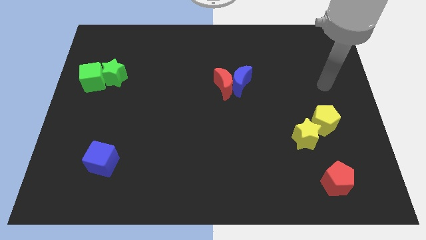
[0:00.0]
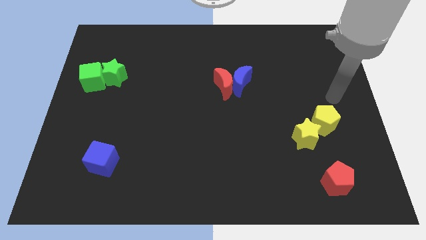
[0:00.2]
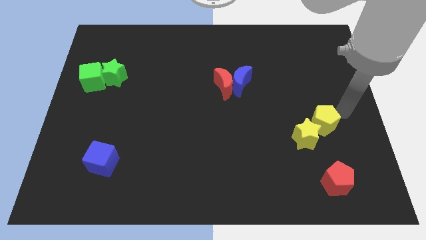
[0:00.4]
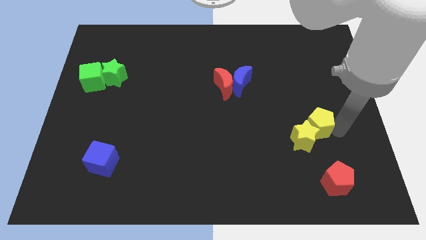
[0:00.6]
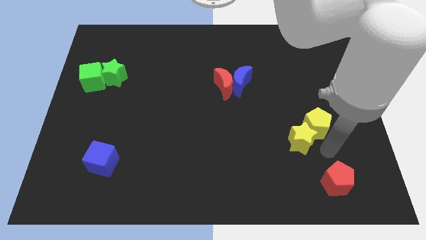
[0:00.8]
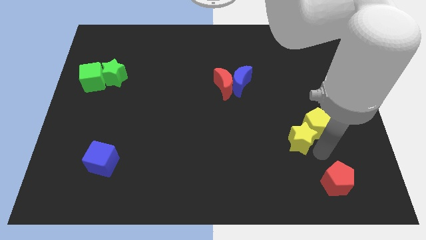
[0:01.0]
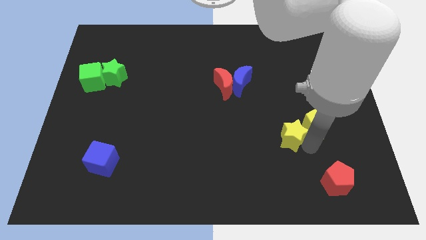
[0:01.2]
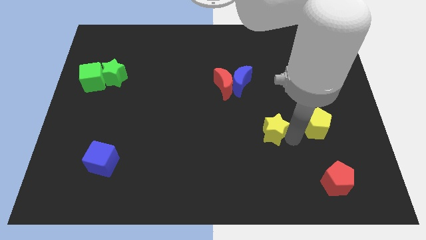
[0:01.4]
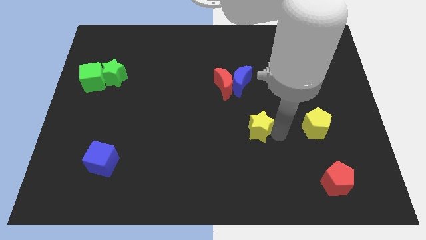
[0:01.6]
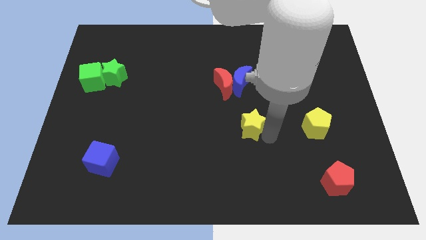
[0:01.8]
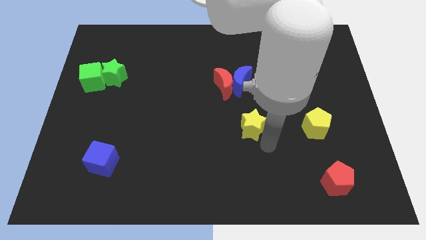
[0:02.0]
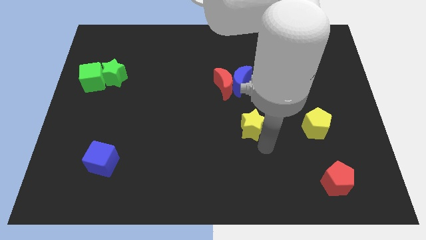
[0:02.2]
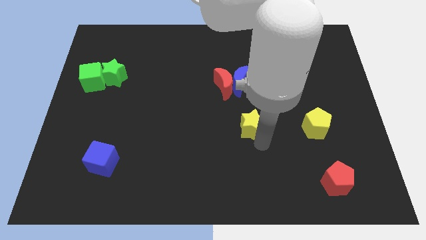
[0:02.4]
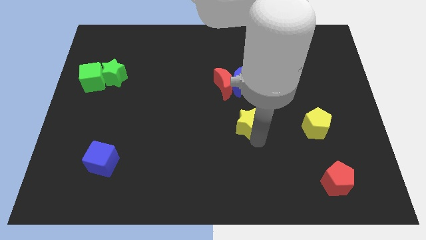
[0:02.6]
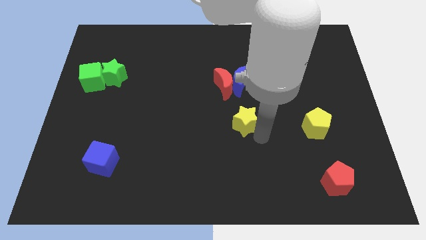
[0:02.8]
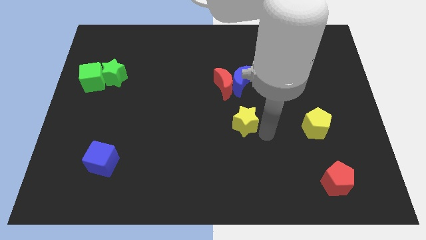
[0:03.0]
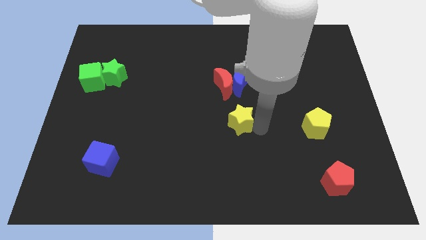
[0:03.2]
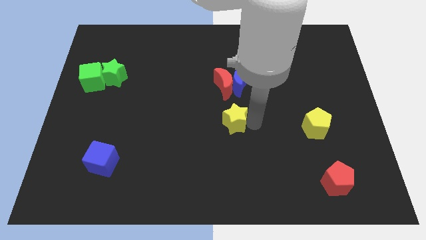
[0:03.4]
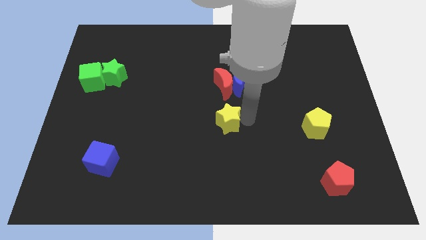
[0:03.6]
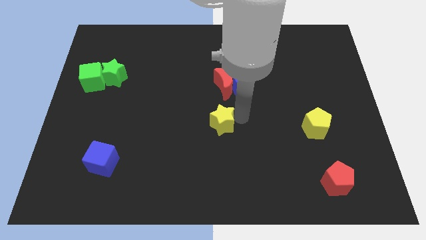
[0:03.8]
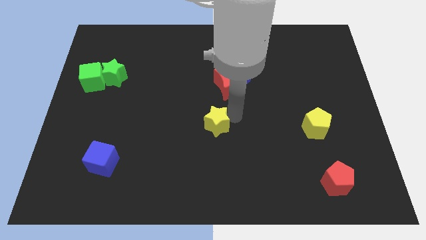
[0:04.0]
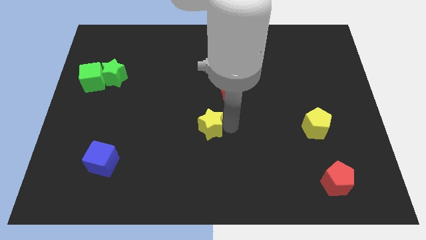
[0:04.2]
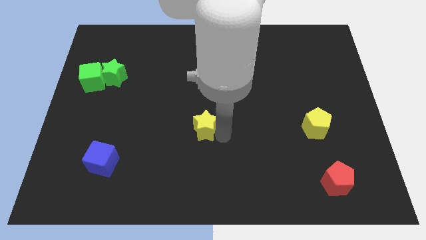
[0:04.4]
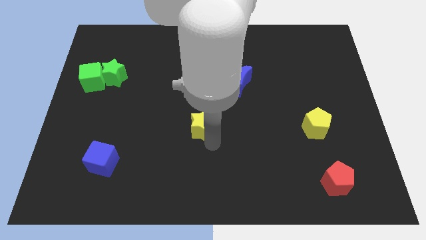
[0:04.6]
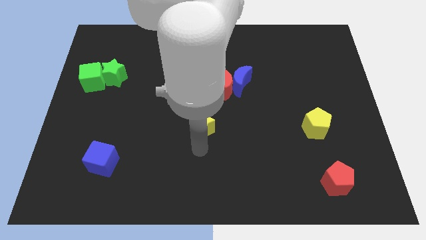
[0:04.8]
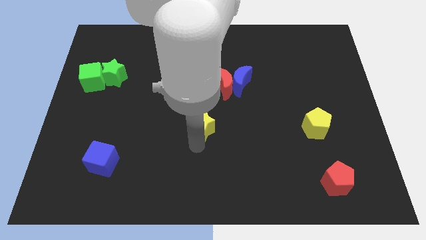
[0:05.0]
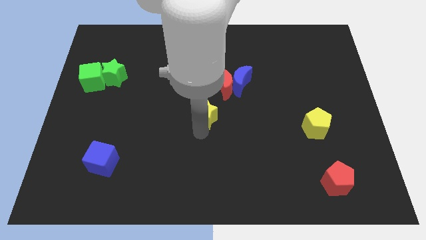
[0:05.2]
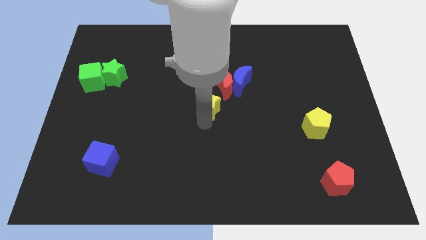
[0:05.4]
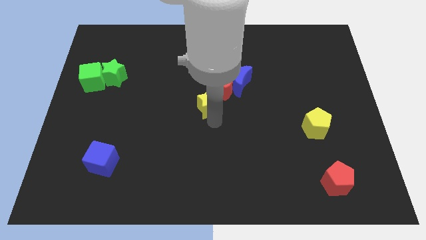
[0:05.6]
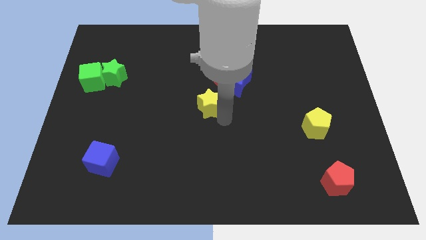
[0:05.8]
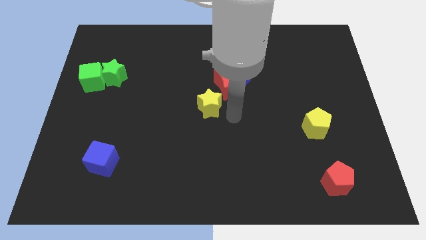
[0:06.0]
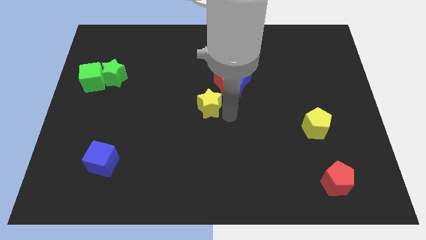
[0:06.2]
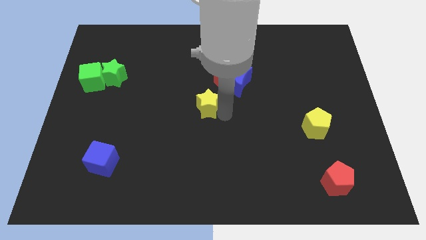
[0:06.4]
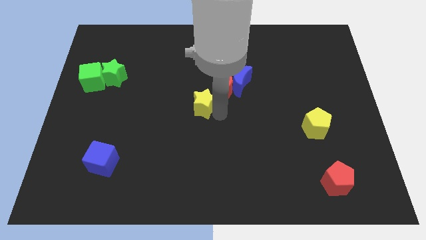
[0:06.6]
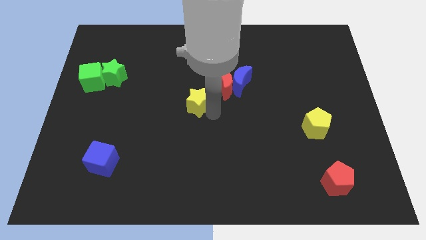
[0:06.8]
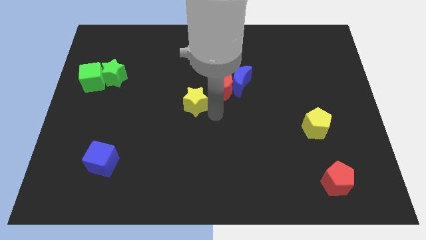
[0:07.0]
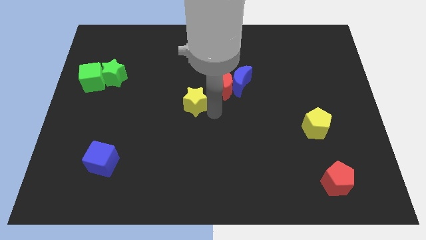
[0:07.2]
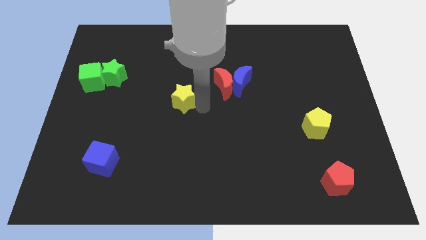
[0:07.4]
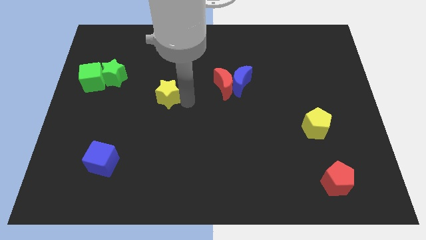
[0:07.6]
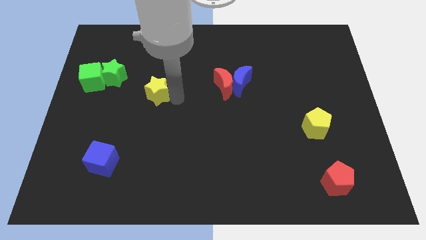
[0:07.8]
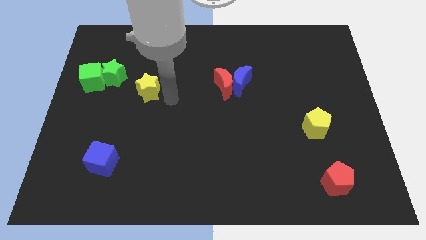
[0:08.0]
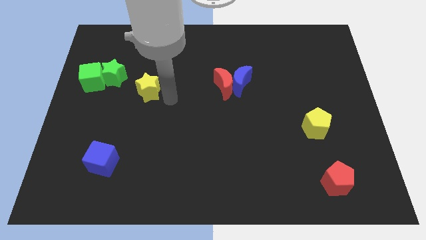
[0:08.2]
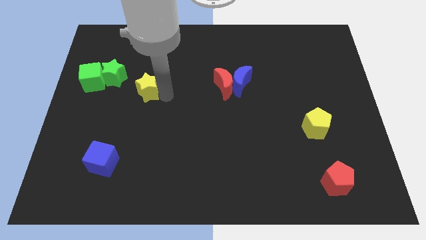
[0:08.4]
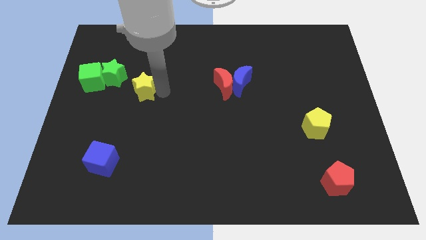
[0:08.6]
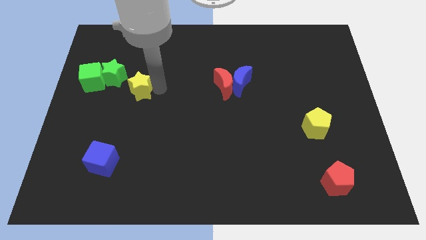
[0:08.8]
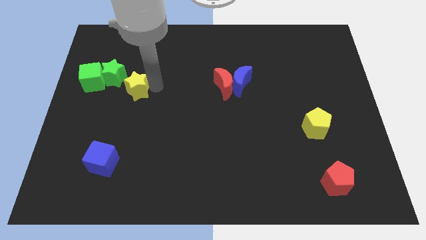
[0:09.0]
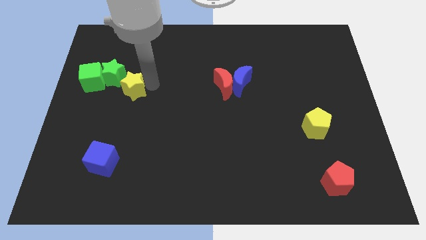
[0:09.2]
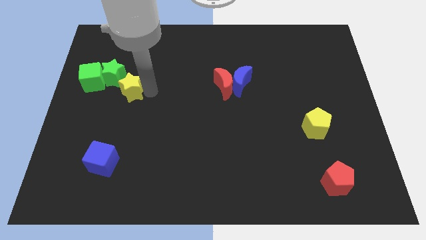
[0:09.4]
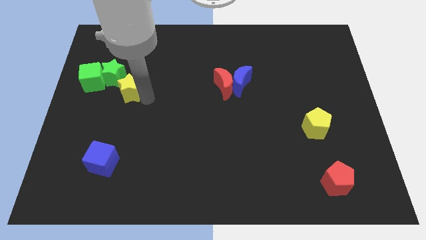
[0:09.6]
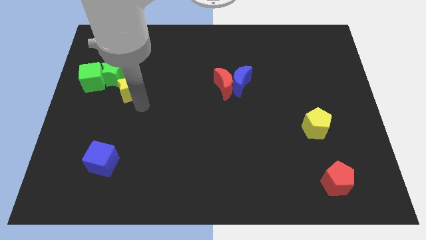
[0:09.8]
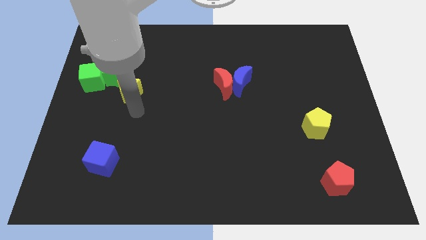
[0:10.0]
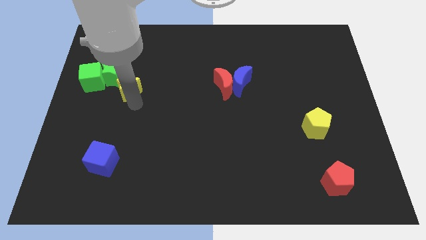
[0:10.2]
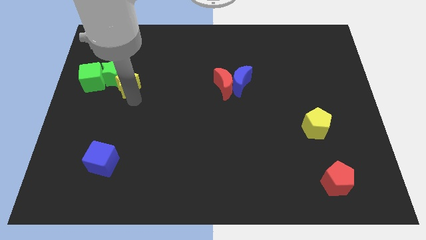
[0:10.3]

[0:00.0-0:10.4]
slide the yellow star to the green star
